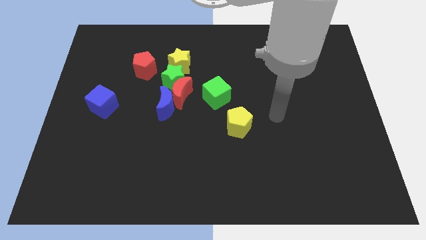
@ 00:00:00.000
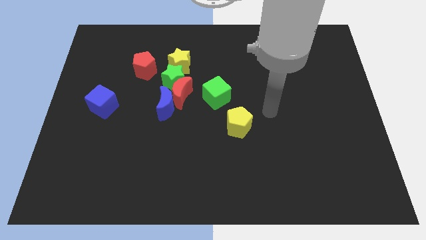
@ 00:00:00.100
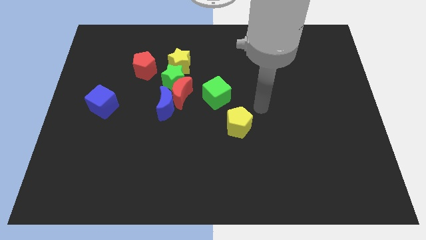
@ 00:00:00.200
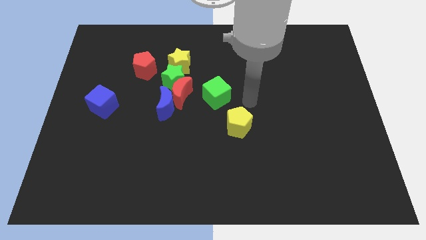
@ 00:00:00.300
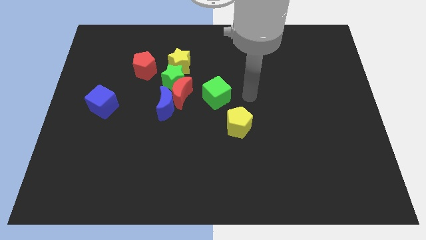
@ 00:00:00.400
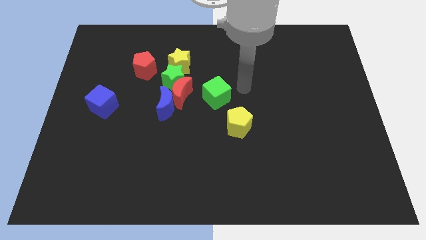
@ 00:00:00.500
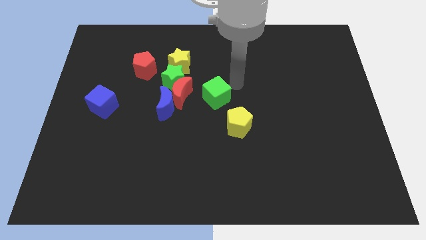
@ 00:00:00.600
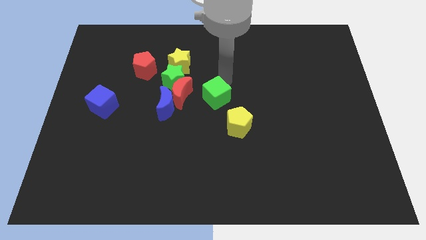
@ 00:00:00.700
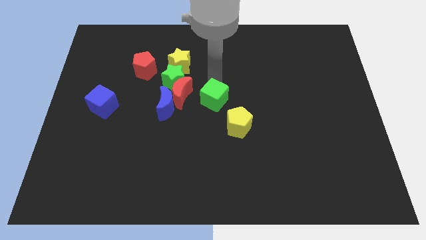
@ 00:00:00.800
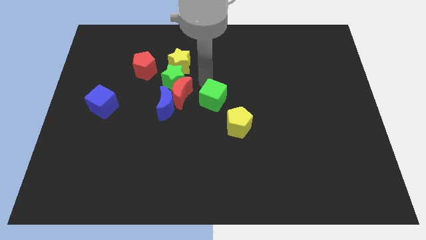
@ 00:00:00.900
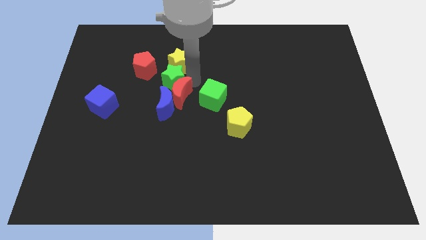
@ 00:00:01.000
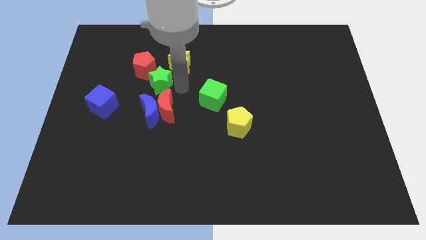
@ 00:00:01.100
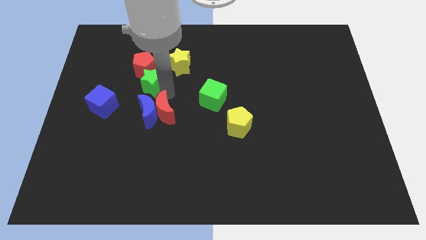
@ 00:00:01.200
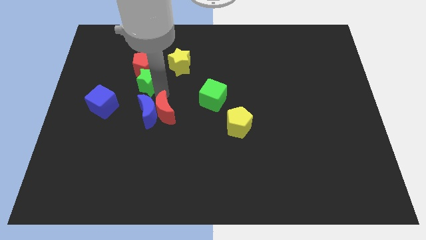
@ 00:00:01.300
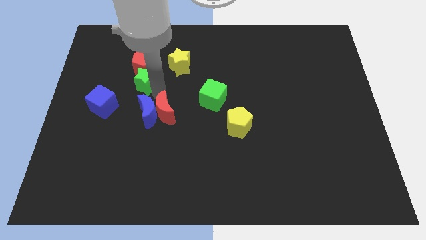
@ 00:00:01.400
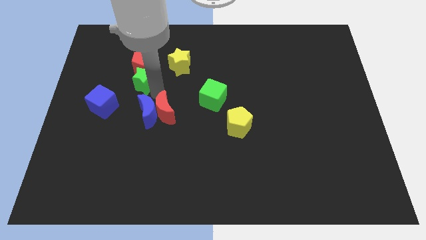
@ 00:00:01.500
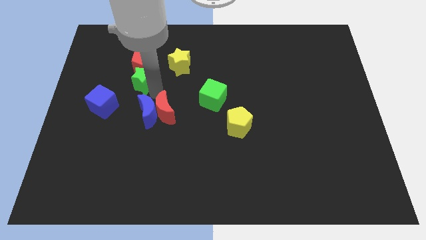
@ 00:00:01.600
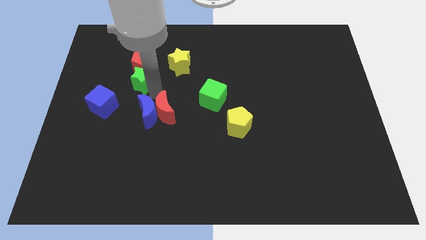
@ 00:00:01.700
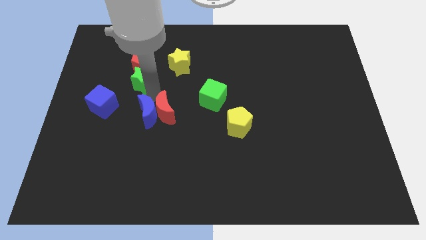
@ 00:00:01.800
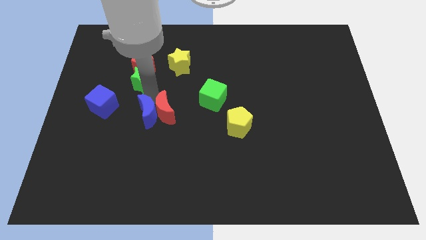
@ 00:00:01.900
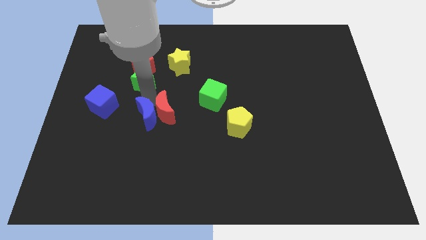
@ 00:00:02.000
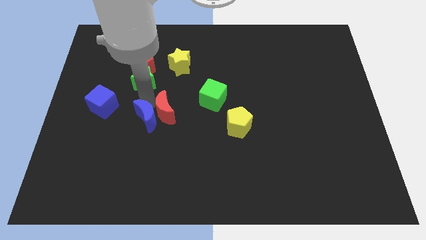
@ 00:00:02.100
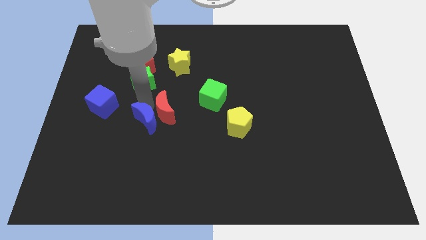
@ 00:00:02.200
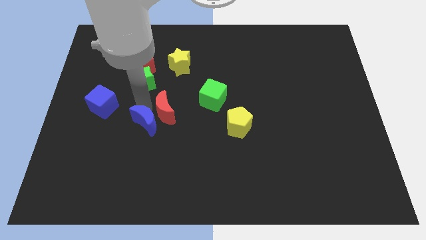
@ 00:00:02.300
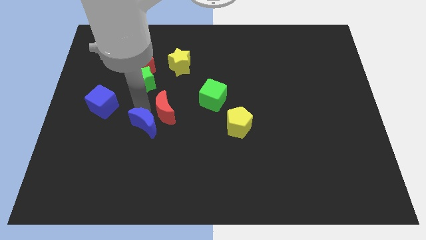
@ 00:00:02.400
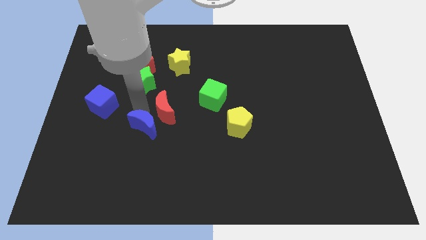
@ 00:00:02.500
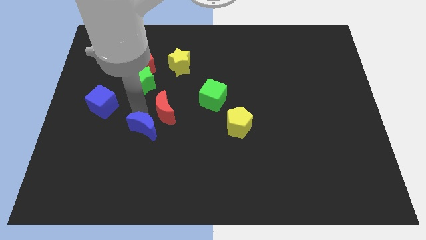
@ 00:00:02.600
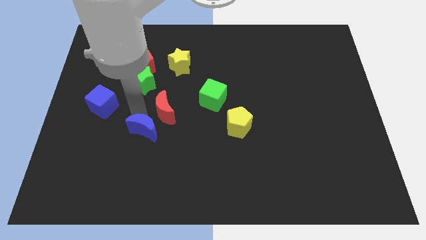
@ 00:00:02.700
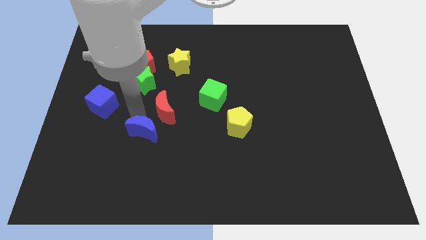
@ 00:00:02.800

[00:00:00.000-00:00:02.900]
move the blue moon away from the red moon and green star

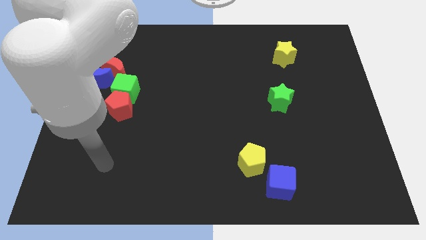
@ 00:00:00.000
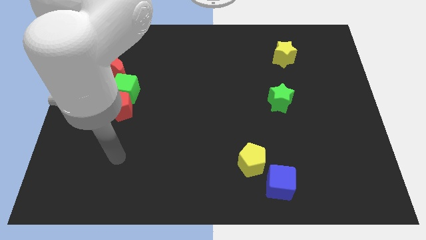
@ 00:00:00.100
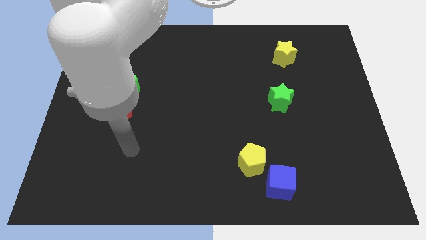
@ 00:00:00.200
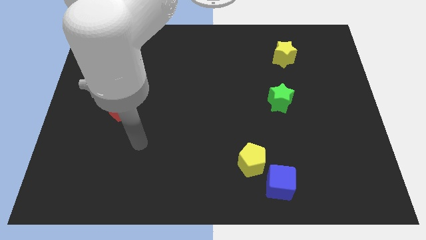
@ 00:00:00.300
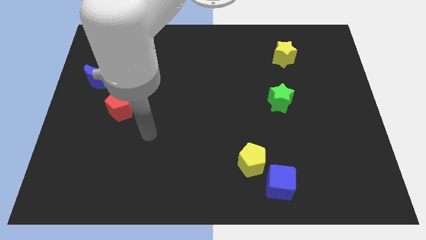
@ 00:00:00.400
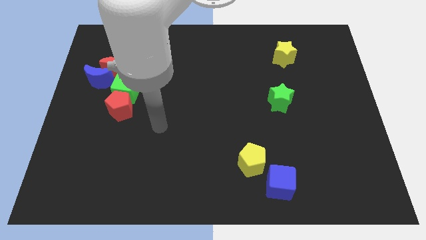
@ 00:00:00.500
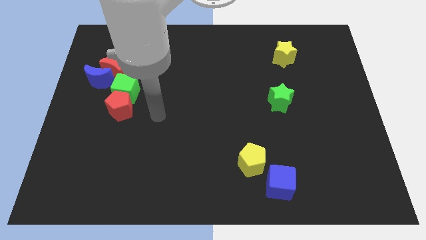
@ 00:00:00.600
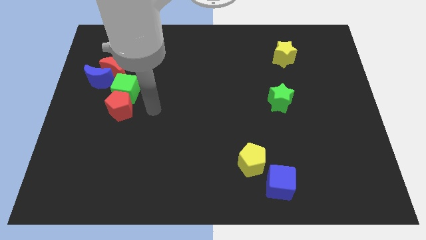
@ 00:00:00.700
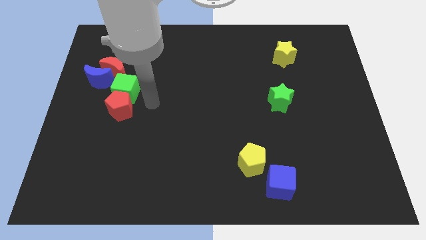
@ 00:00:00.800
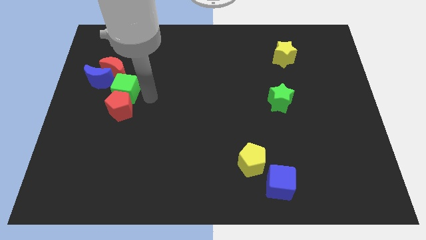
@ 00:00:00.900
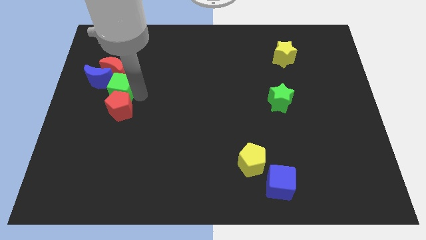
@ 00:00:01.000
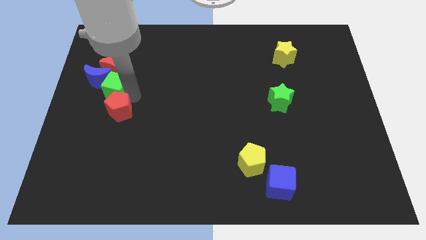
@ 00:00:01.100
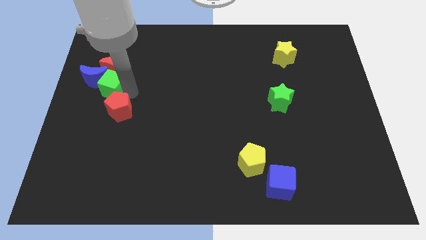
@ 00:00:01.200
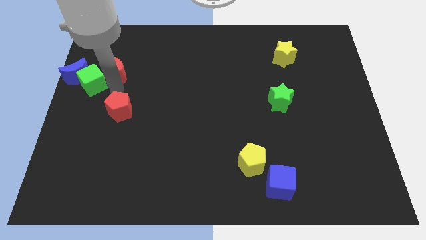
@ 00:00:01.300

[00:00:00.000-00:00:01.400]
separate the red pentagon from the green cube

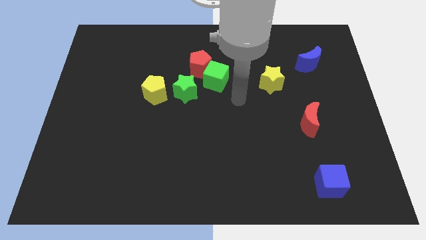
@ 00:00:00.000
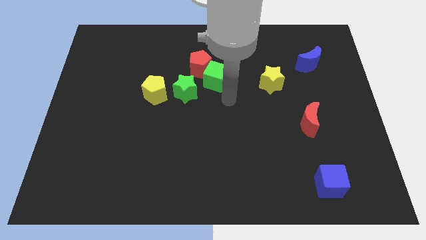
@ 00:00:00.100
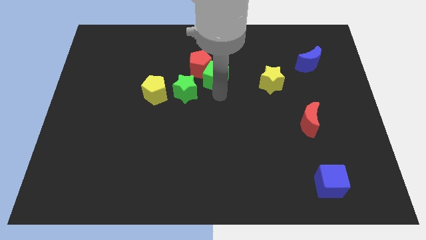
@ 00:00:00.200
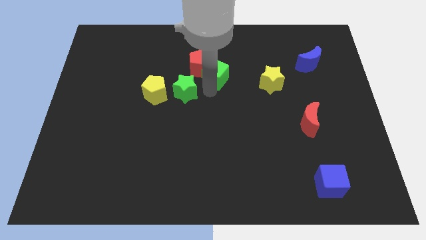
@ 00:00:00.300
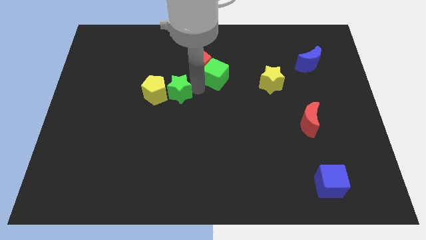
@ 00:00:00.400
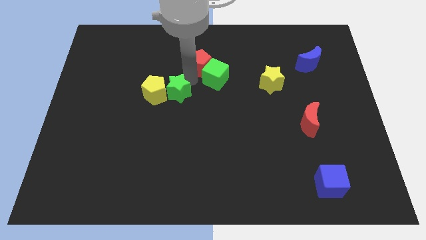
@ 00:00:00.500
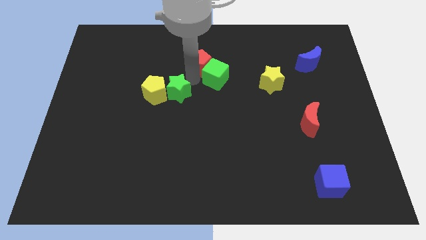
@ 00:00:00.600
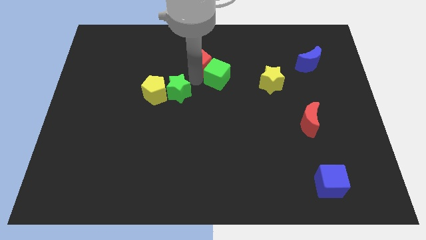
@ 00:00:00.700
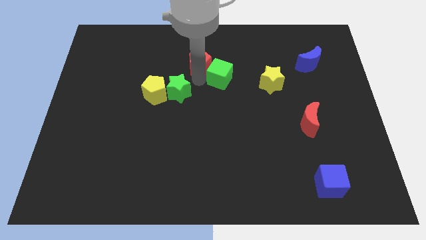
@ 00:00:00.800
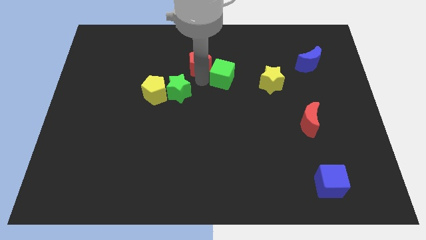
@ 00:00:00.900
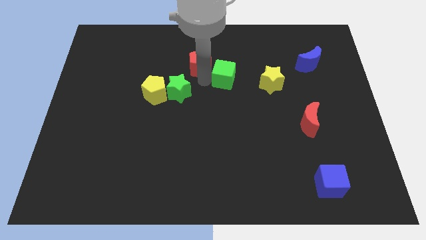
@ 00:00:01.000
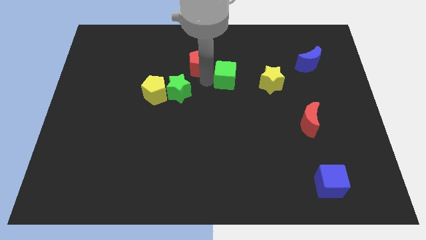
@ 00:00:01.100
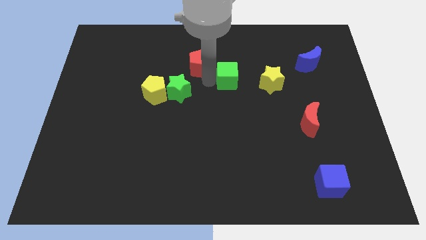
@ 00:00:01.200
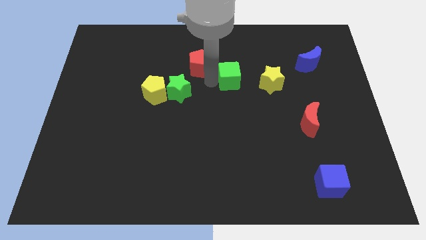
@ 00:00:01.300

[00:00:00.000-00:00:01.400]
separate the green cube from the red pentagon and green star

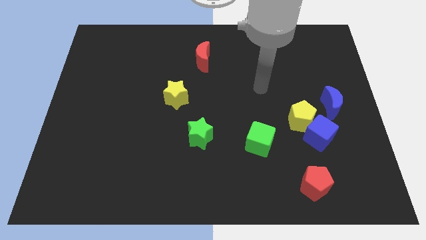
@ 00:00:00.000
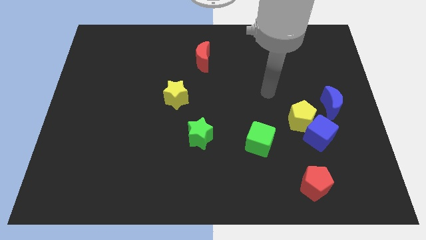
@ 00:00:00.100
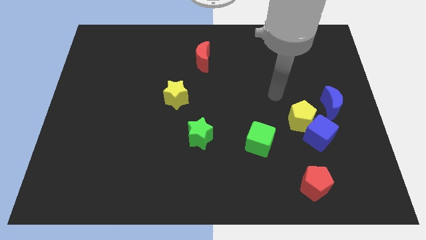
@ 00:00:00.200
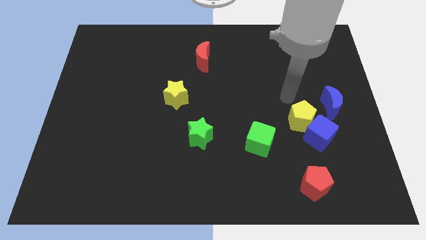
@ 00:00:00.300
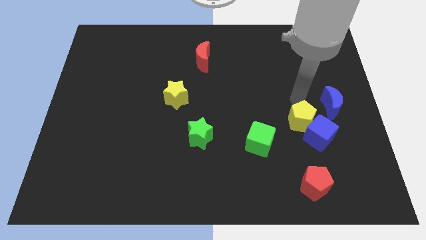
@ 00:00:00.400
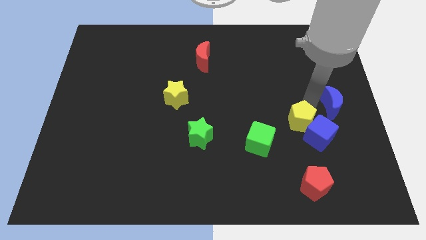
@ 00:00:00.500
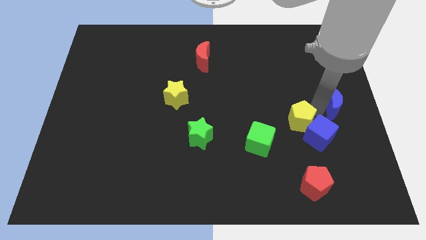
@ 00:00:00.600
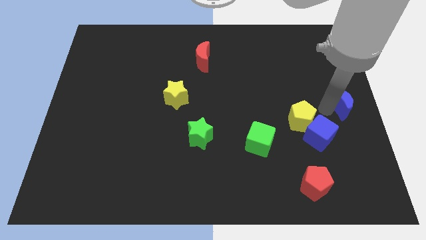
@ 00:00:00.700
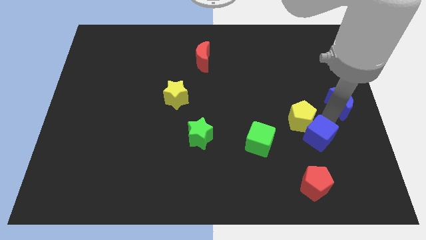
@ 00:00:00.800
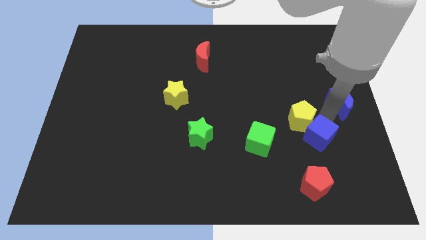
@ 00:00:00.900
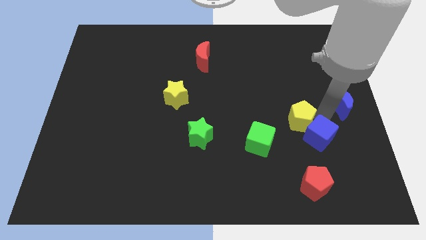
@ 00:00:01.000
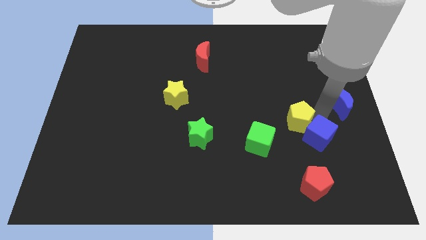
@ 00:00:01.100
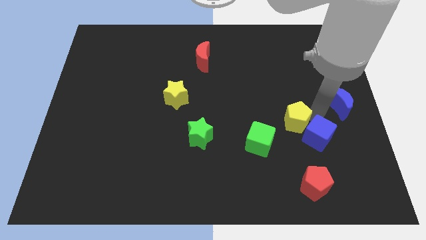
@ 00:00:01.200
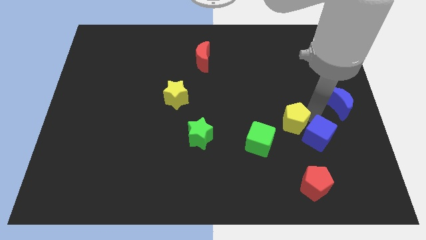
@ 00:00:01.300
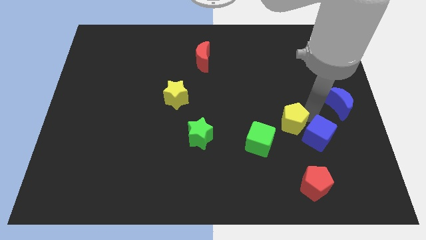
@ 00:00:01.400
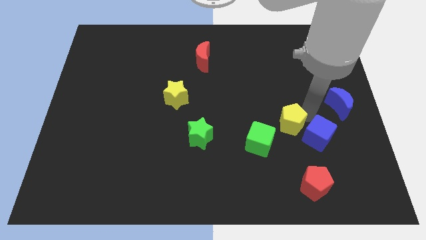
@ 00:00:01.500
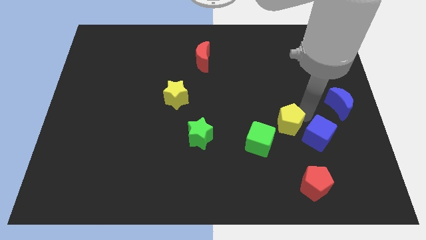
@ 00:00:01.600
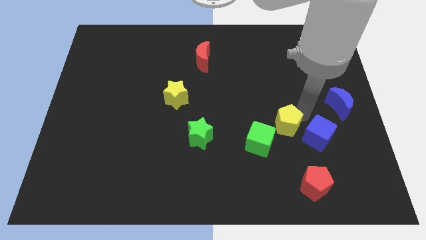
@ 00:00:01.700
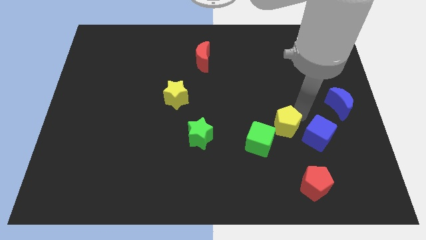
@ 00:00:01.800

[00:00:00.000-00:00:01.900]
separate the yellow pentagon from the blue cube and blue moon

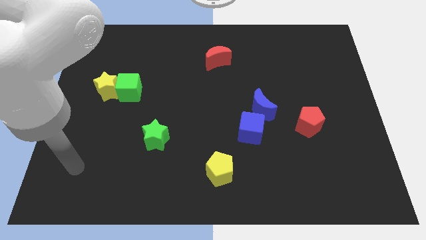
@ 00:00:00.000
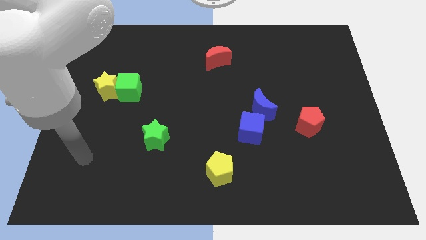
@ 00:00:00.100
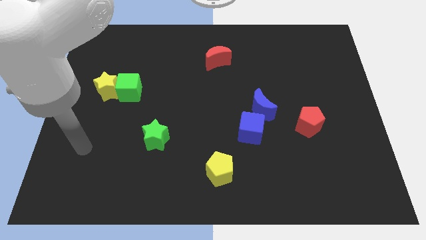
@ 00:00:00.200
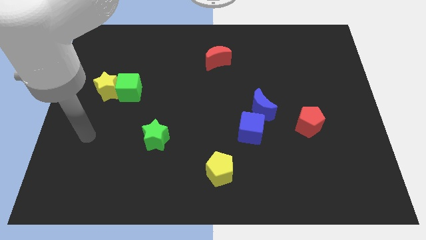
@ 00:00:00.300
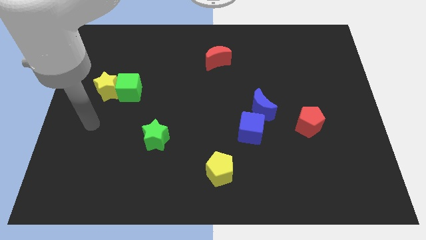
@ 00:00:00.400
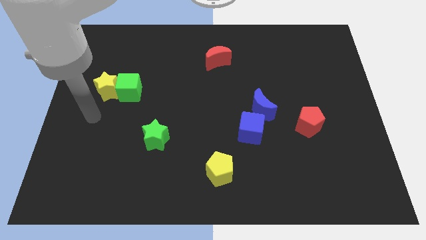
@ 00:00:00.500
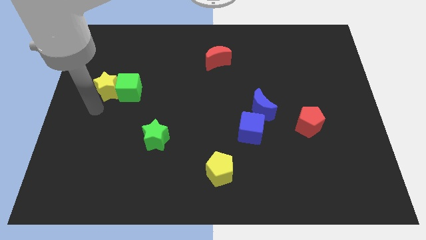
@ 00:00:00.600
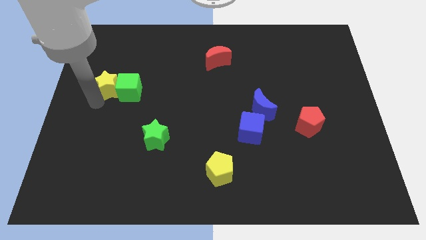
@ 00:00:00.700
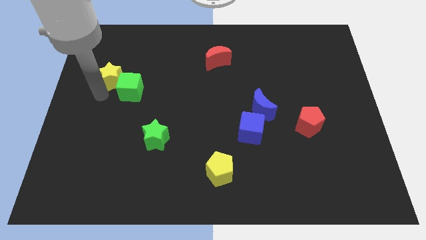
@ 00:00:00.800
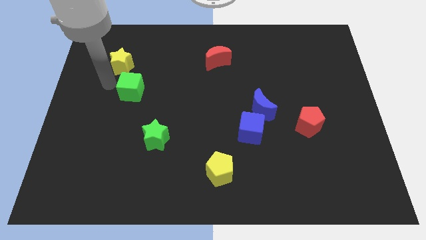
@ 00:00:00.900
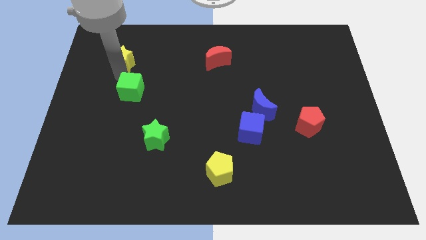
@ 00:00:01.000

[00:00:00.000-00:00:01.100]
pull the green cube apart from the yellow star

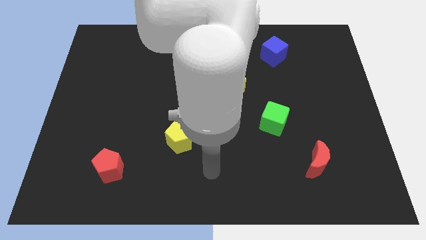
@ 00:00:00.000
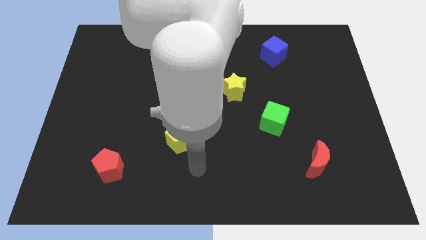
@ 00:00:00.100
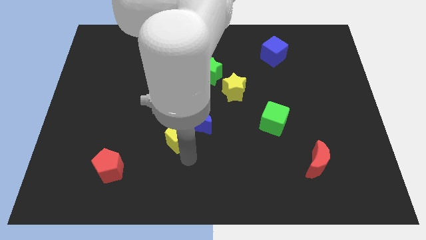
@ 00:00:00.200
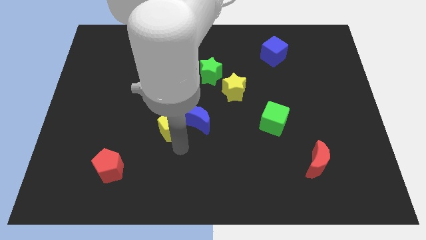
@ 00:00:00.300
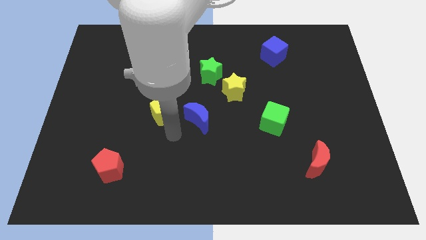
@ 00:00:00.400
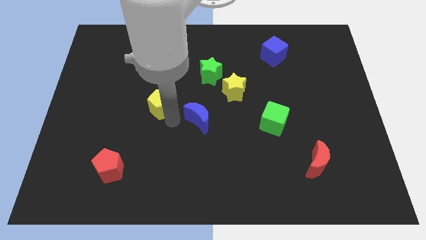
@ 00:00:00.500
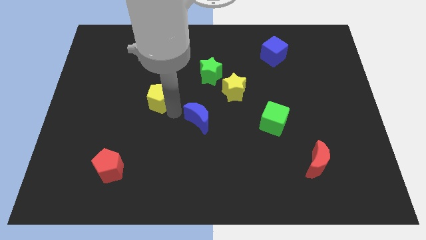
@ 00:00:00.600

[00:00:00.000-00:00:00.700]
pull the blue moon apart from the yellow pentagon
